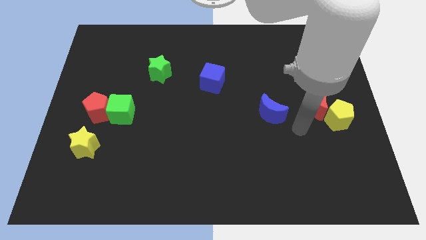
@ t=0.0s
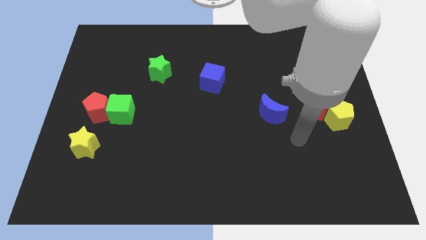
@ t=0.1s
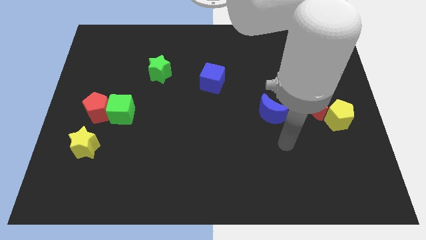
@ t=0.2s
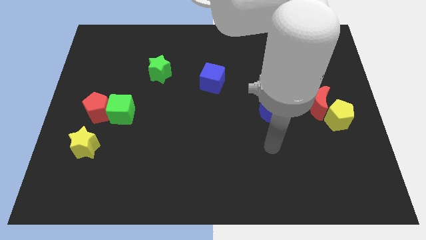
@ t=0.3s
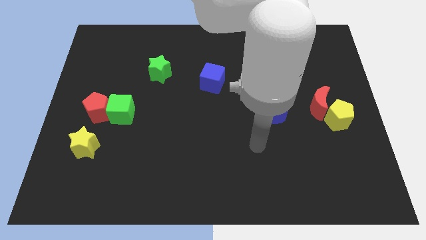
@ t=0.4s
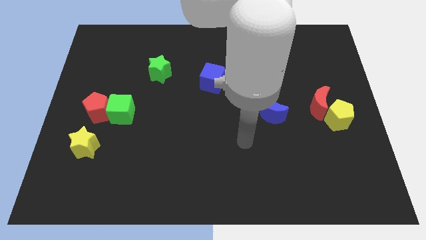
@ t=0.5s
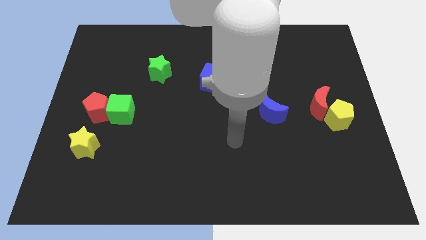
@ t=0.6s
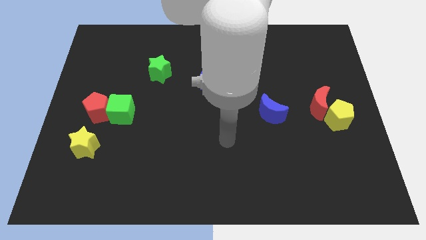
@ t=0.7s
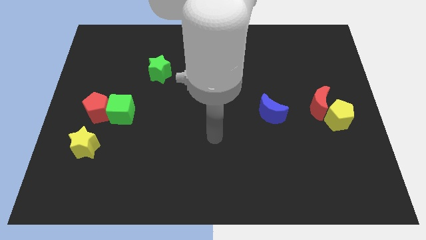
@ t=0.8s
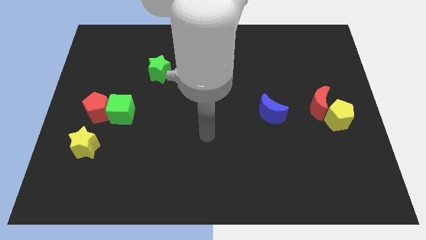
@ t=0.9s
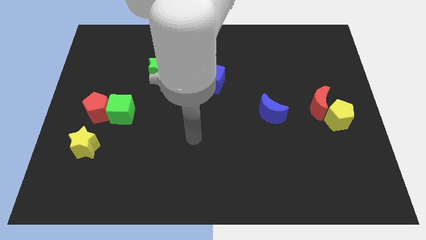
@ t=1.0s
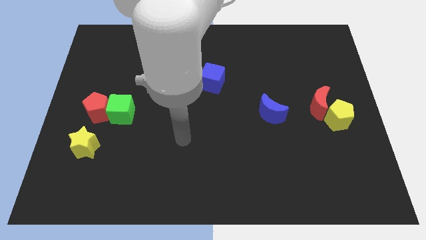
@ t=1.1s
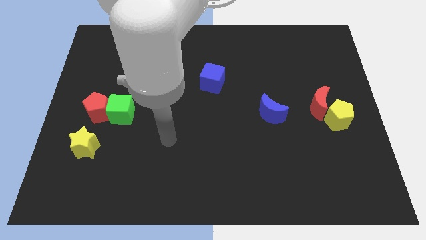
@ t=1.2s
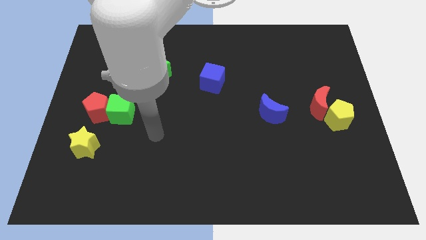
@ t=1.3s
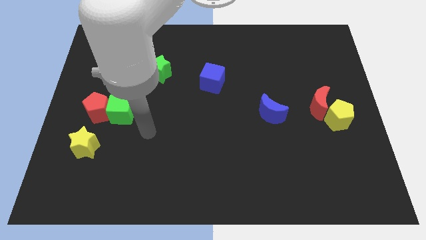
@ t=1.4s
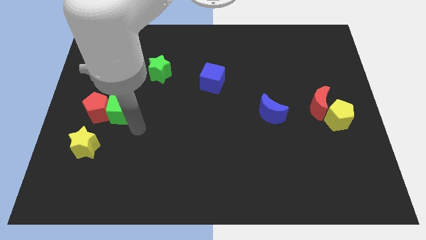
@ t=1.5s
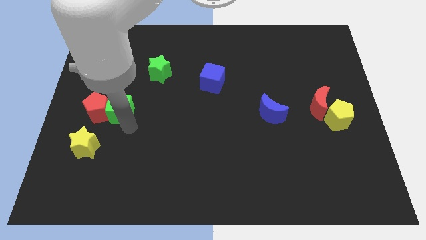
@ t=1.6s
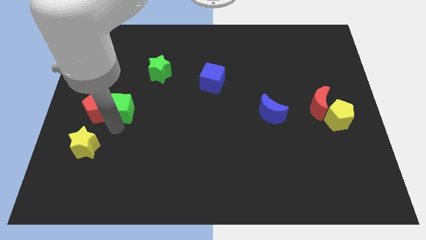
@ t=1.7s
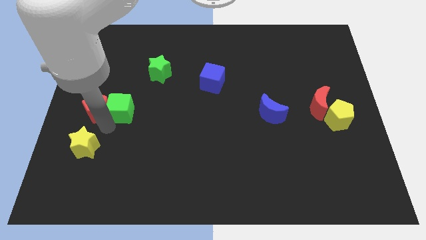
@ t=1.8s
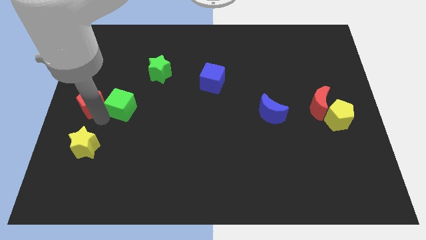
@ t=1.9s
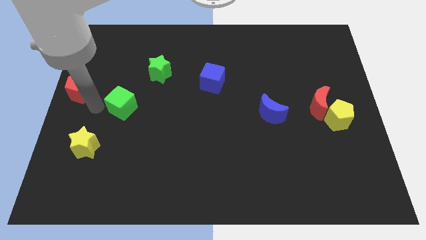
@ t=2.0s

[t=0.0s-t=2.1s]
separate the green cube from the red pentagon

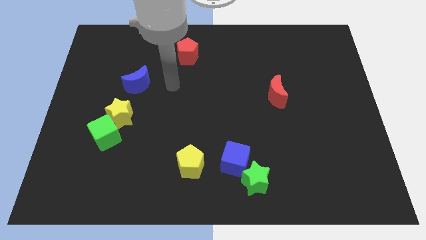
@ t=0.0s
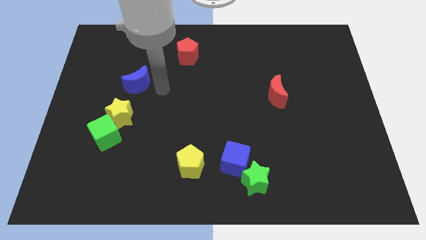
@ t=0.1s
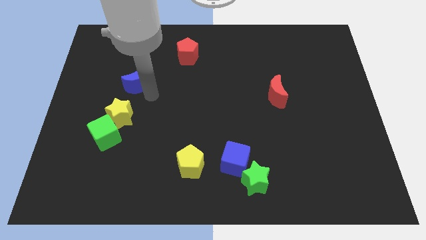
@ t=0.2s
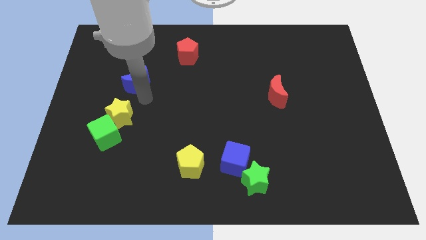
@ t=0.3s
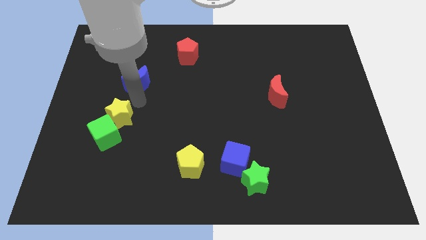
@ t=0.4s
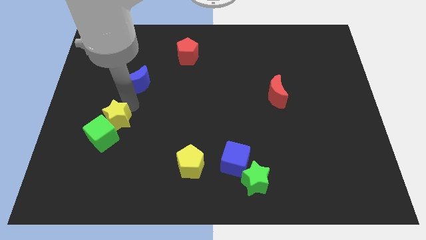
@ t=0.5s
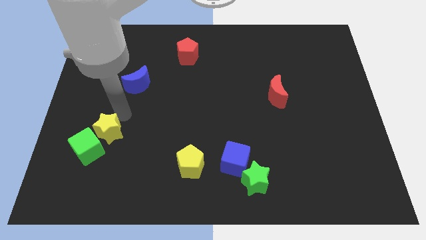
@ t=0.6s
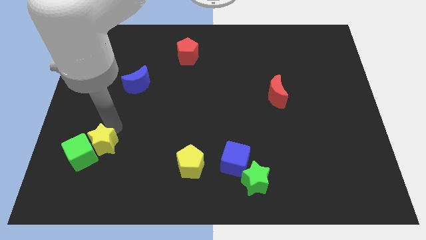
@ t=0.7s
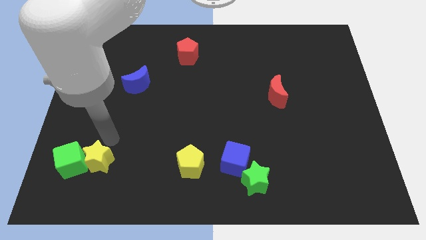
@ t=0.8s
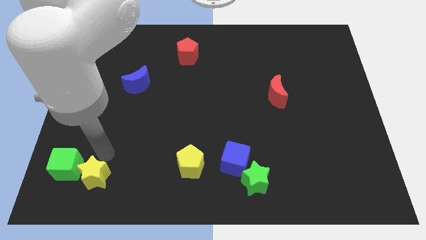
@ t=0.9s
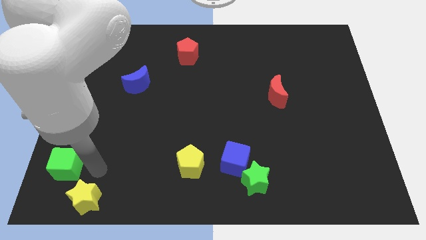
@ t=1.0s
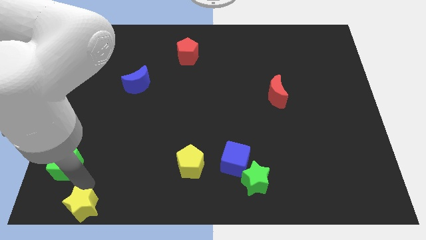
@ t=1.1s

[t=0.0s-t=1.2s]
move the green cube away from the yellow star

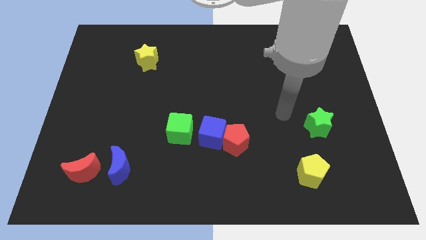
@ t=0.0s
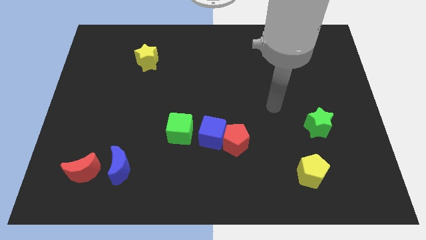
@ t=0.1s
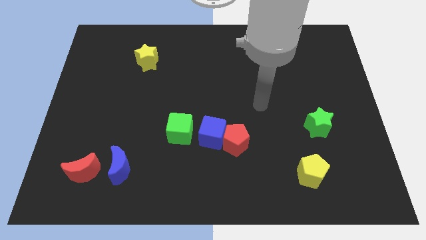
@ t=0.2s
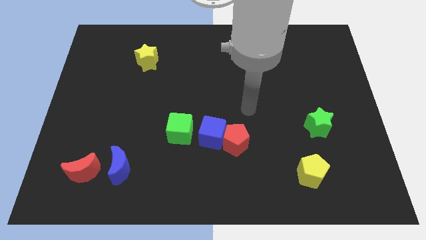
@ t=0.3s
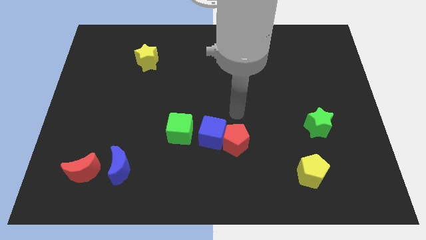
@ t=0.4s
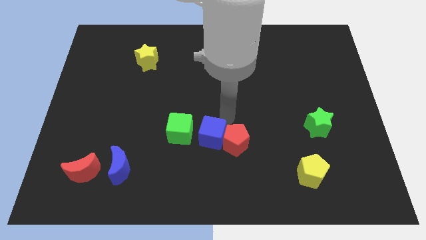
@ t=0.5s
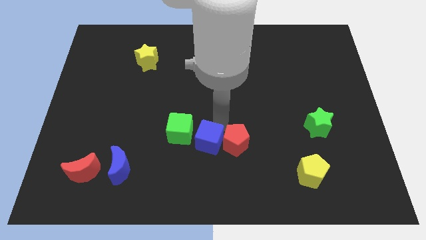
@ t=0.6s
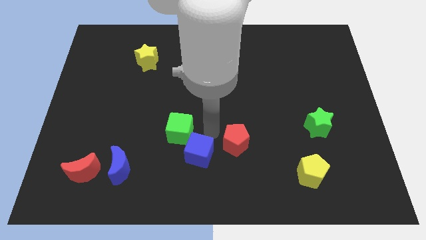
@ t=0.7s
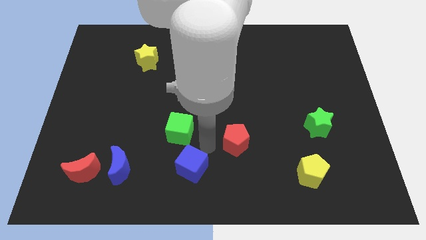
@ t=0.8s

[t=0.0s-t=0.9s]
move the red pentagon away from the blue cube

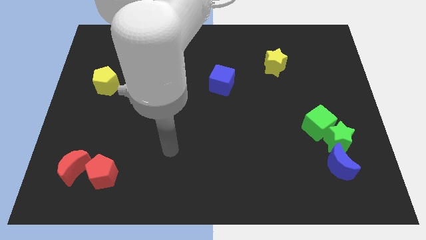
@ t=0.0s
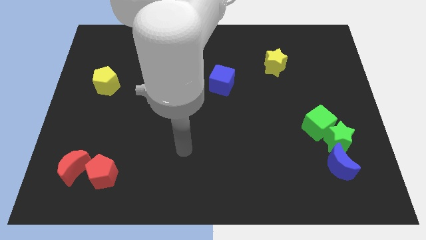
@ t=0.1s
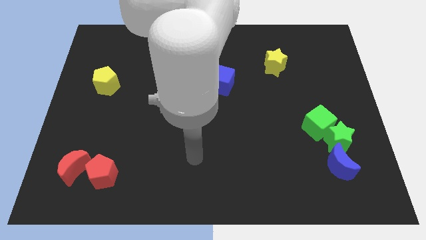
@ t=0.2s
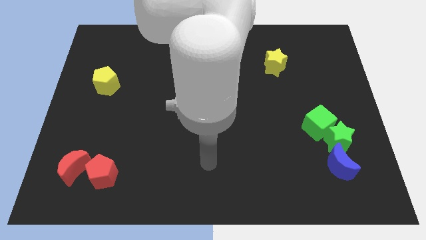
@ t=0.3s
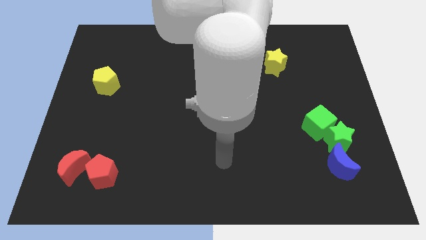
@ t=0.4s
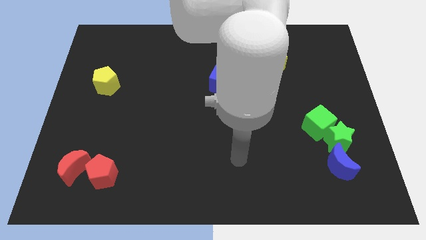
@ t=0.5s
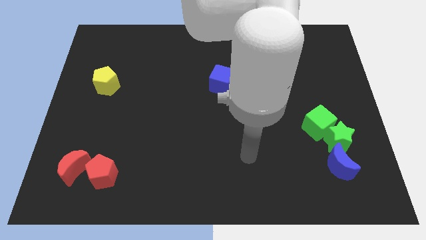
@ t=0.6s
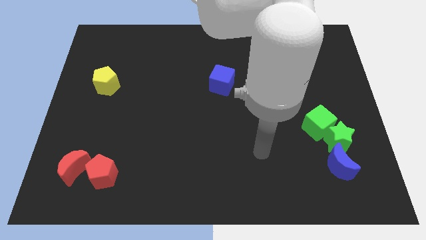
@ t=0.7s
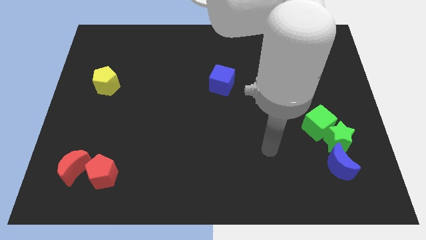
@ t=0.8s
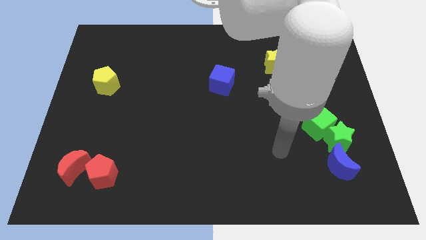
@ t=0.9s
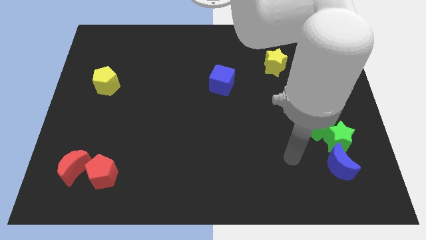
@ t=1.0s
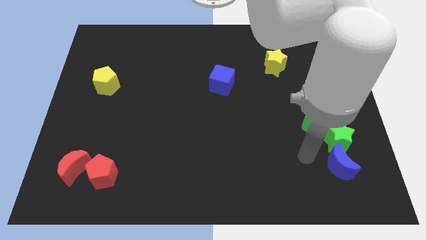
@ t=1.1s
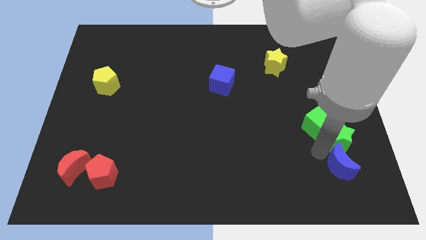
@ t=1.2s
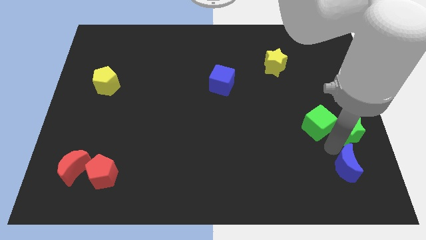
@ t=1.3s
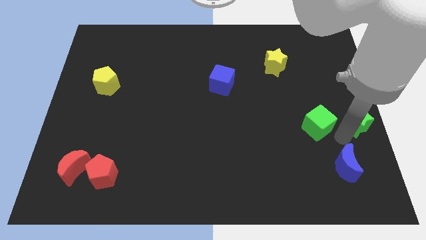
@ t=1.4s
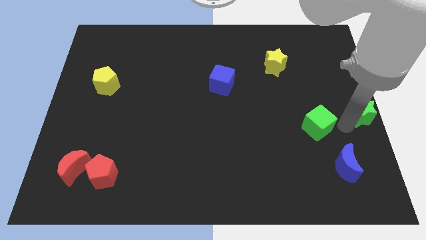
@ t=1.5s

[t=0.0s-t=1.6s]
move the green cube away from the green star

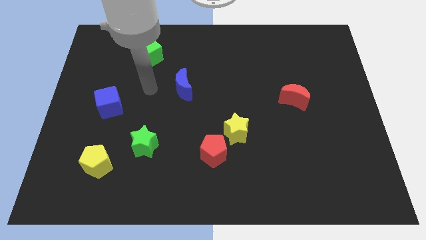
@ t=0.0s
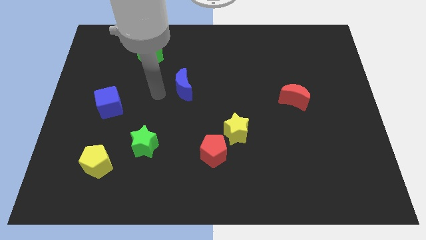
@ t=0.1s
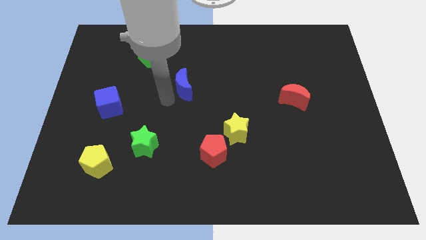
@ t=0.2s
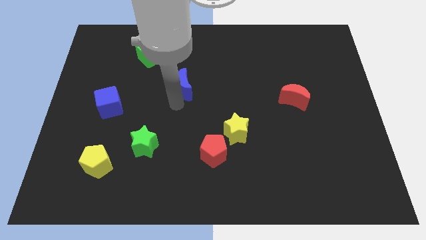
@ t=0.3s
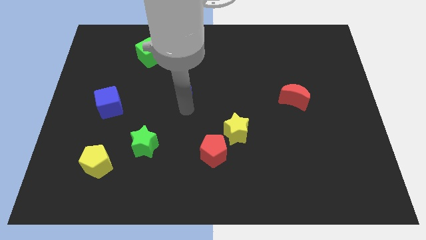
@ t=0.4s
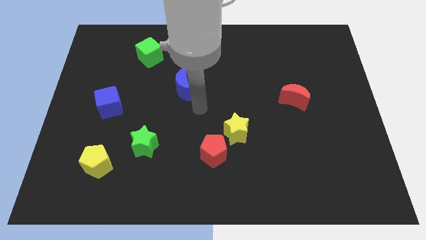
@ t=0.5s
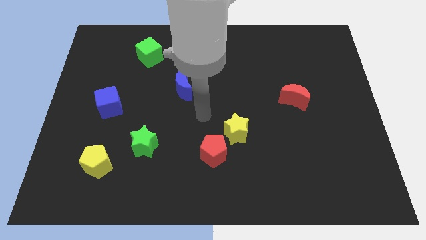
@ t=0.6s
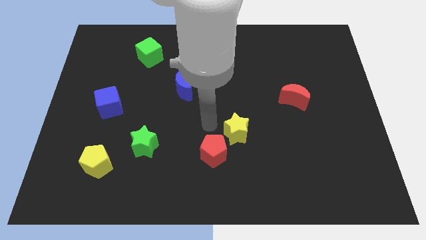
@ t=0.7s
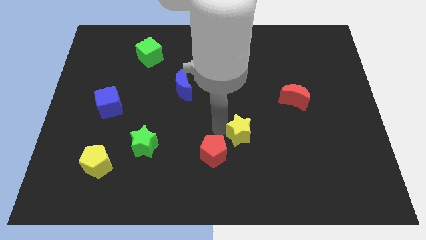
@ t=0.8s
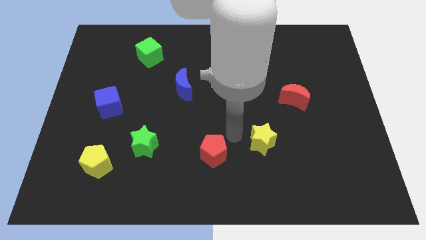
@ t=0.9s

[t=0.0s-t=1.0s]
separate the red pentagon from the yellow star

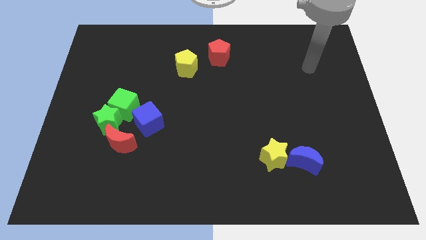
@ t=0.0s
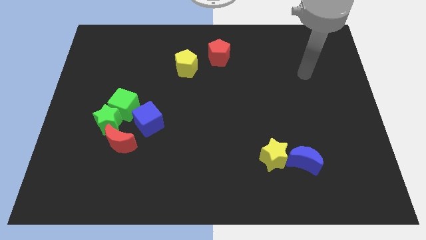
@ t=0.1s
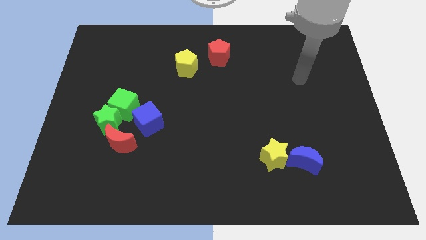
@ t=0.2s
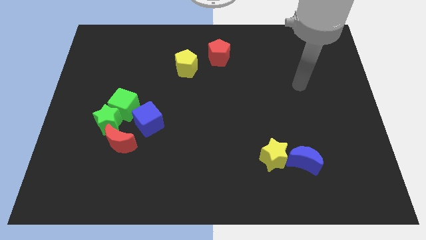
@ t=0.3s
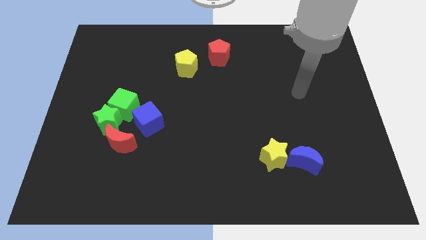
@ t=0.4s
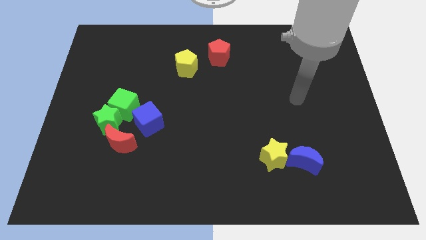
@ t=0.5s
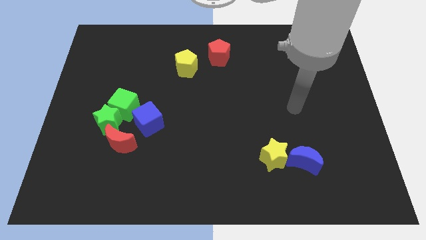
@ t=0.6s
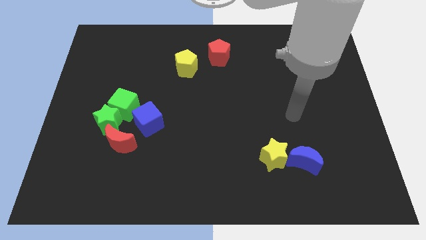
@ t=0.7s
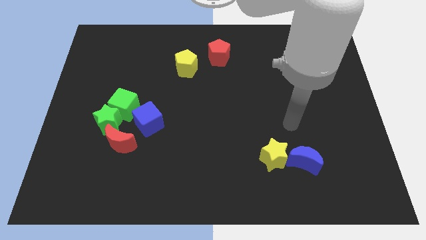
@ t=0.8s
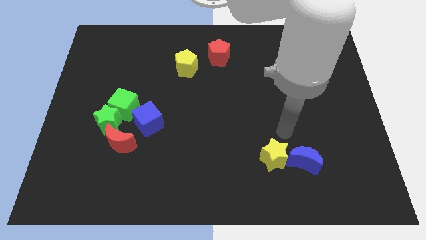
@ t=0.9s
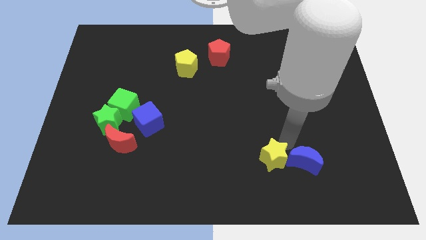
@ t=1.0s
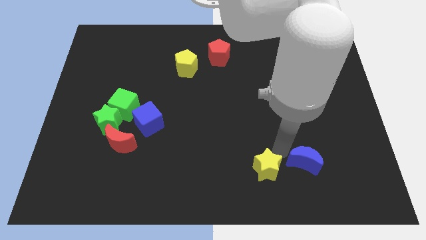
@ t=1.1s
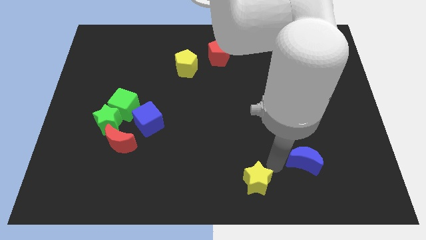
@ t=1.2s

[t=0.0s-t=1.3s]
pull the blue moon apart from the yellow star

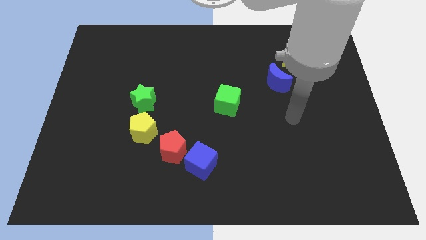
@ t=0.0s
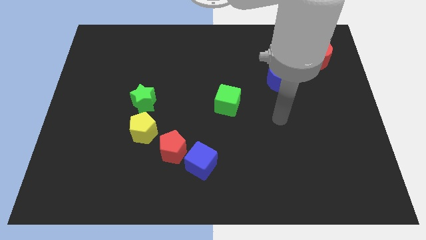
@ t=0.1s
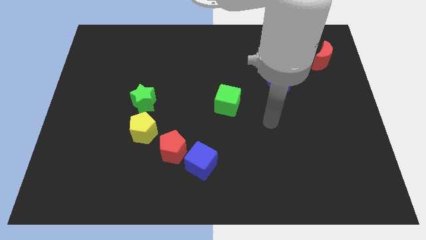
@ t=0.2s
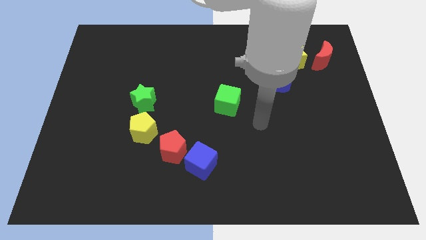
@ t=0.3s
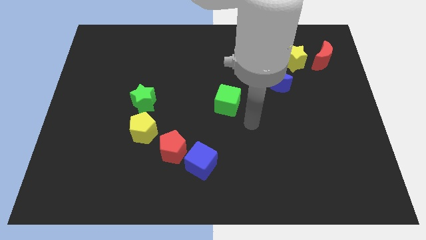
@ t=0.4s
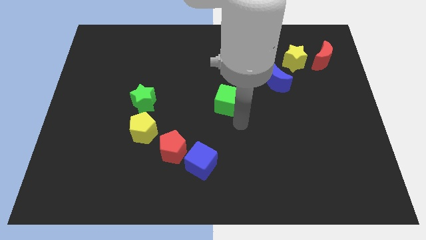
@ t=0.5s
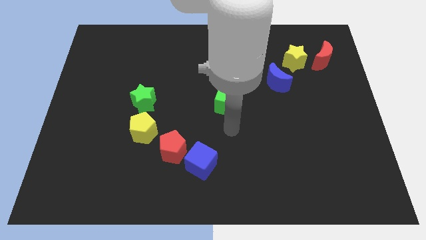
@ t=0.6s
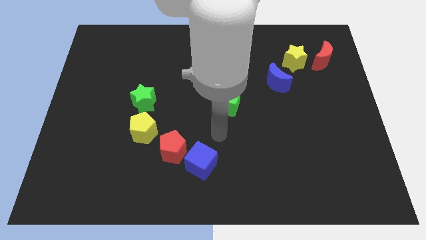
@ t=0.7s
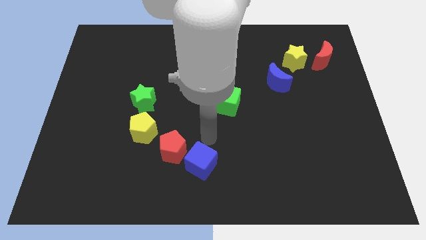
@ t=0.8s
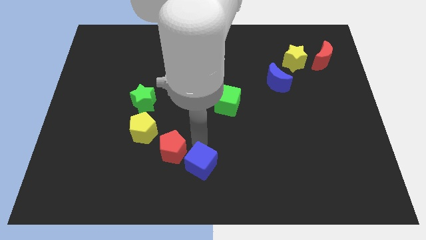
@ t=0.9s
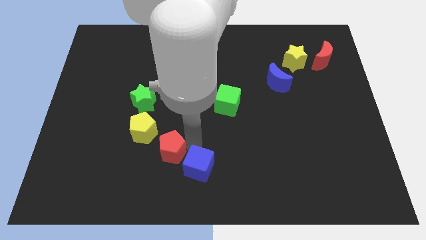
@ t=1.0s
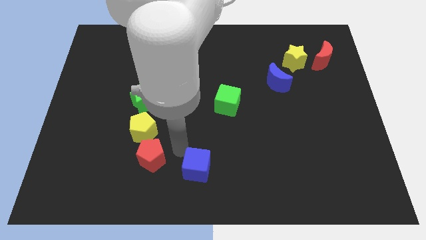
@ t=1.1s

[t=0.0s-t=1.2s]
pull the blue cube apart from the red pentagon
